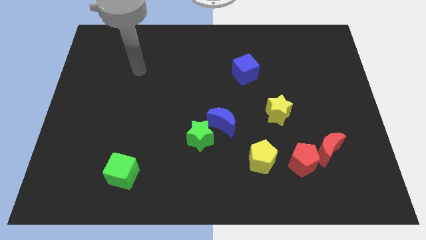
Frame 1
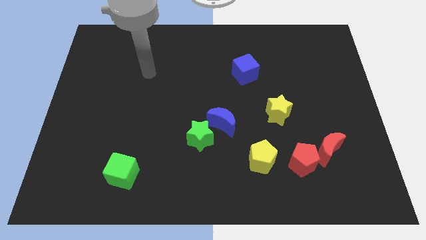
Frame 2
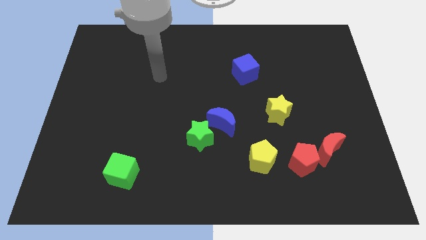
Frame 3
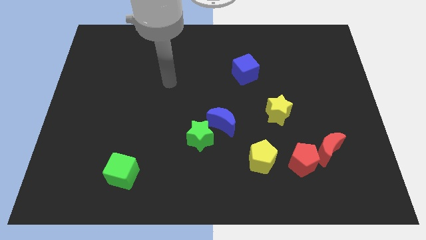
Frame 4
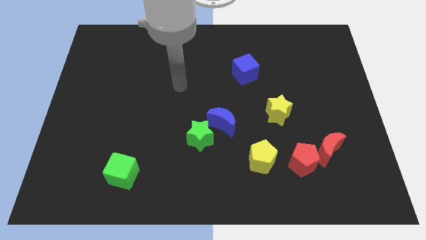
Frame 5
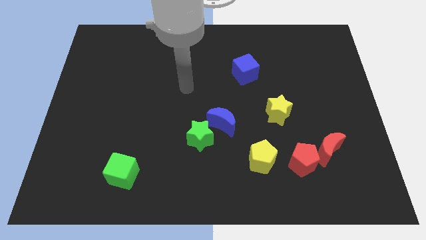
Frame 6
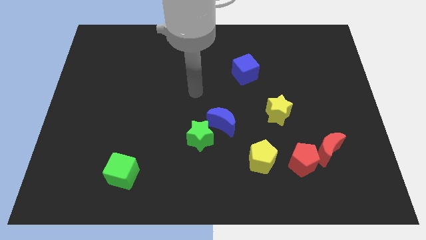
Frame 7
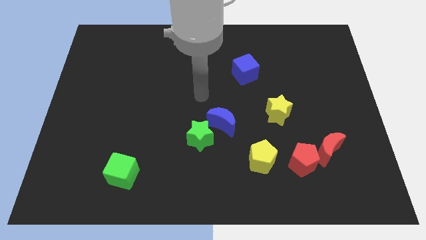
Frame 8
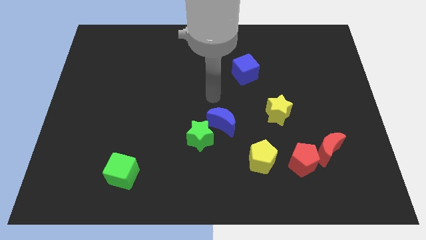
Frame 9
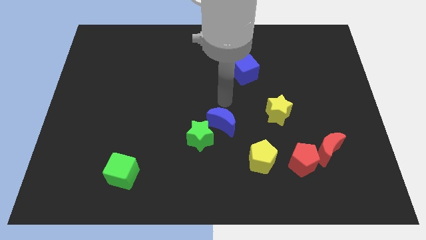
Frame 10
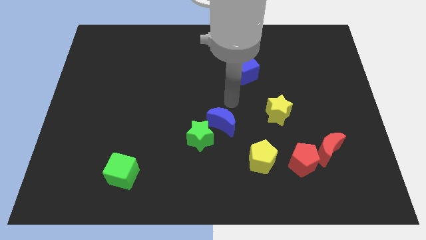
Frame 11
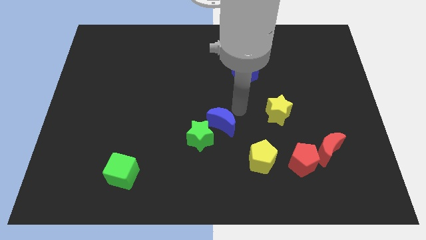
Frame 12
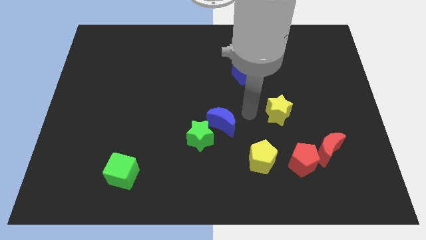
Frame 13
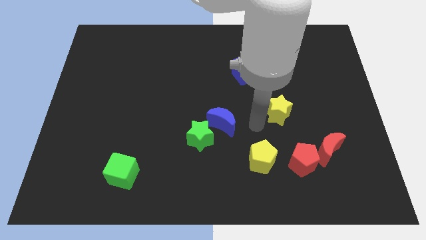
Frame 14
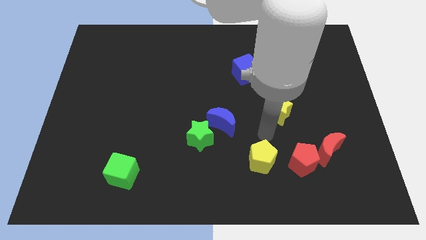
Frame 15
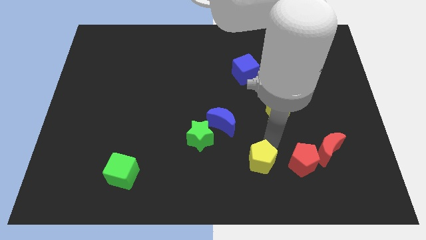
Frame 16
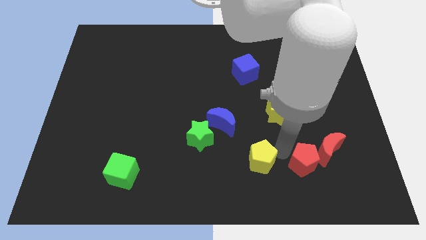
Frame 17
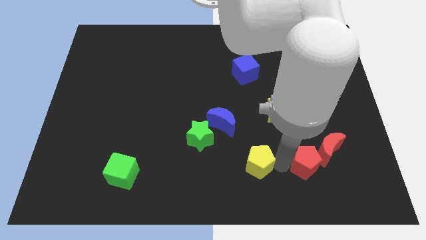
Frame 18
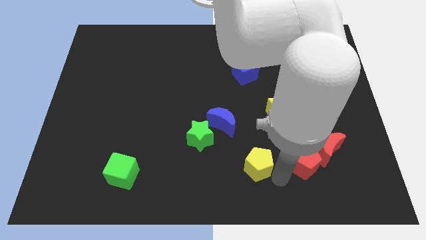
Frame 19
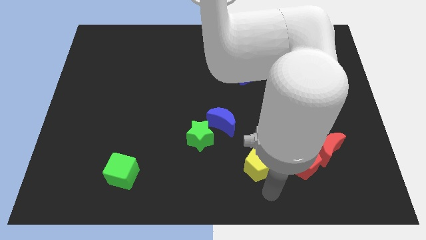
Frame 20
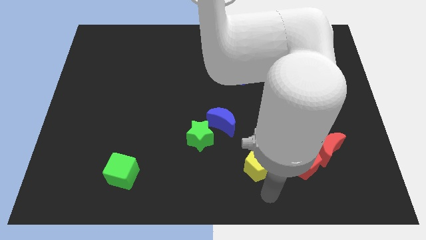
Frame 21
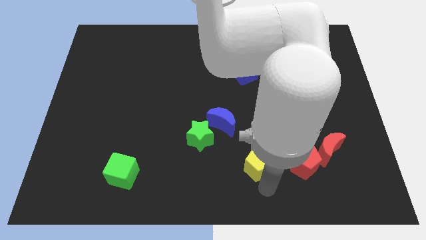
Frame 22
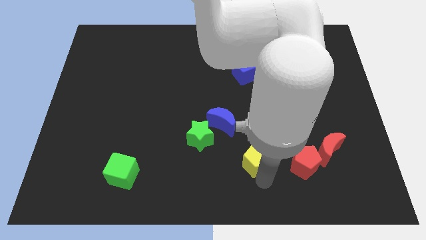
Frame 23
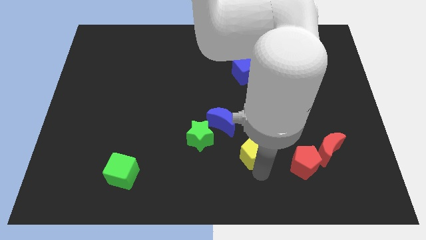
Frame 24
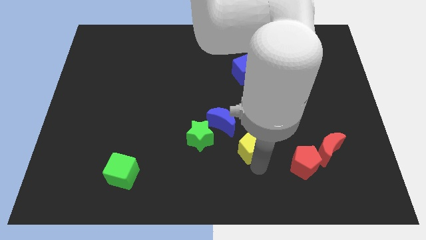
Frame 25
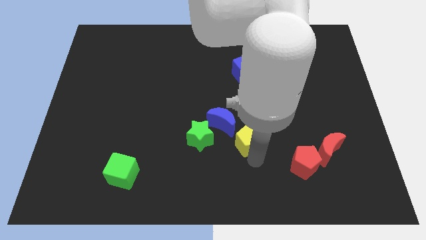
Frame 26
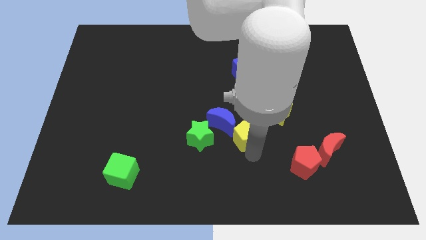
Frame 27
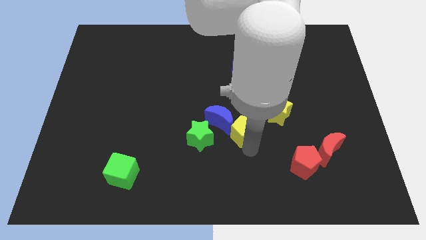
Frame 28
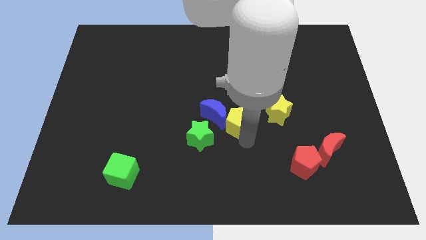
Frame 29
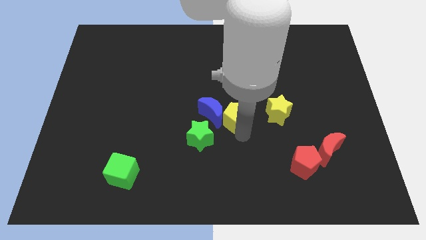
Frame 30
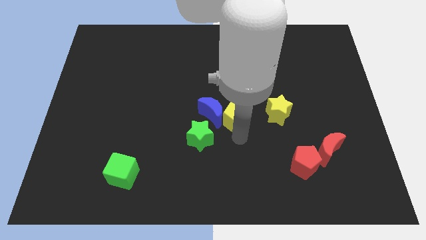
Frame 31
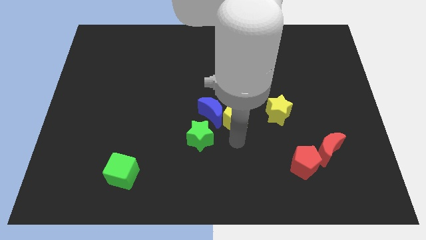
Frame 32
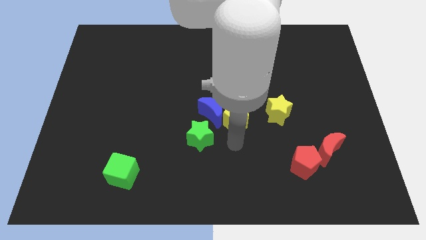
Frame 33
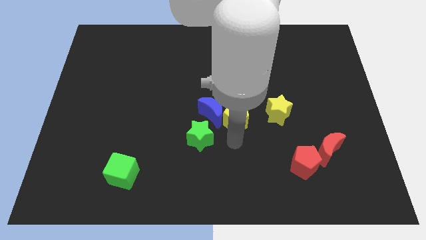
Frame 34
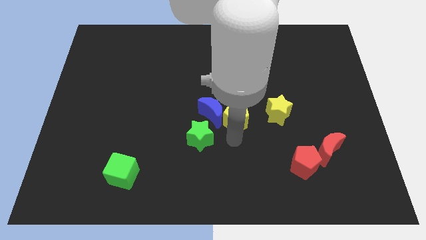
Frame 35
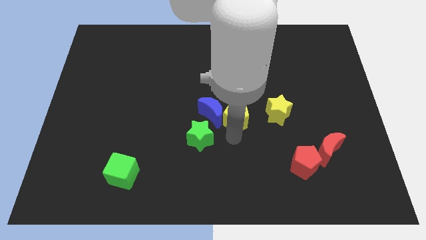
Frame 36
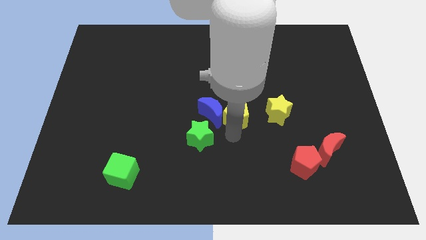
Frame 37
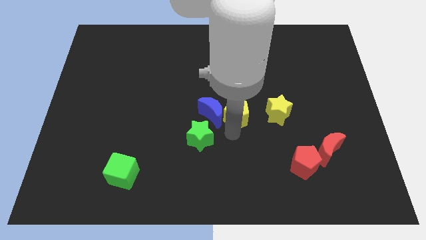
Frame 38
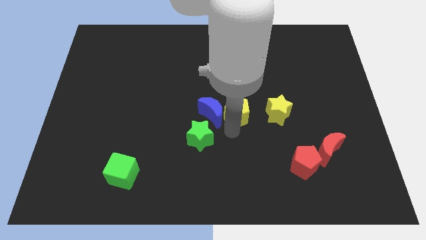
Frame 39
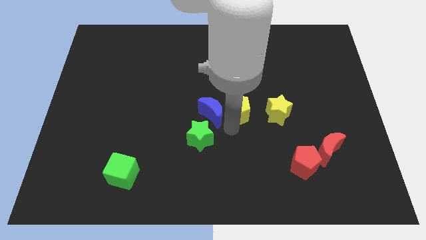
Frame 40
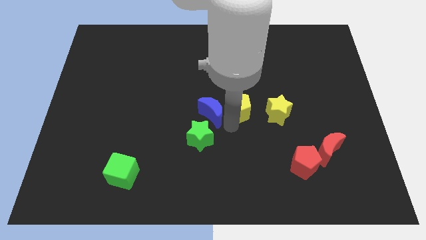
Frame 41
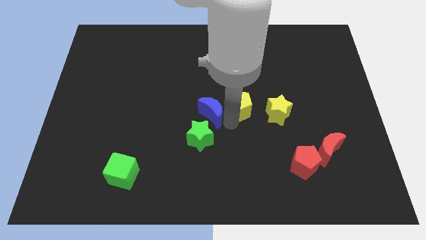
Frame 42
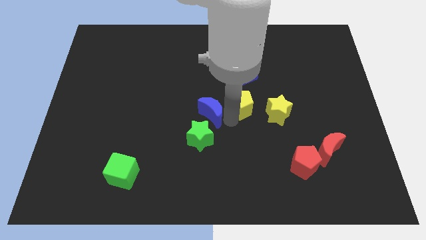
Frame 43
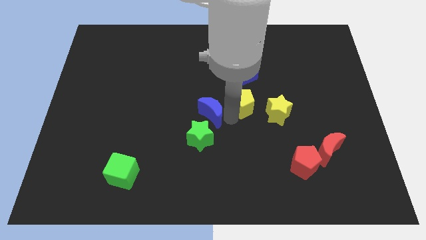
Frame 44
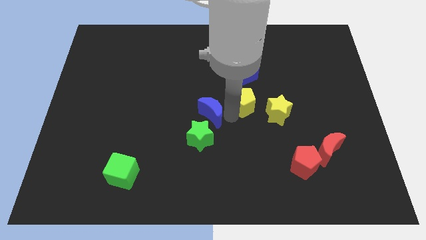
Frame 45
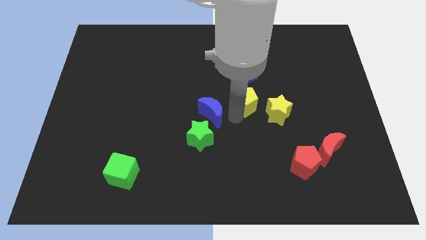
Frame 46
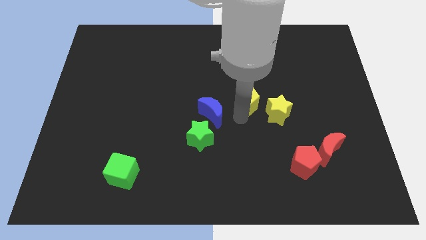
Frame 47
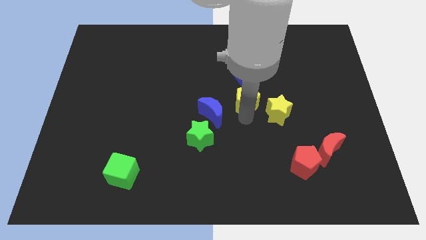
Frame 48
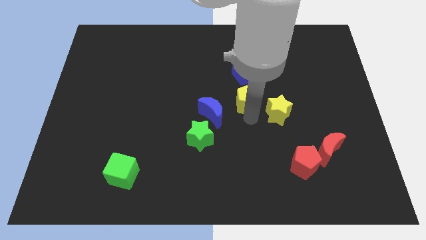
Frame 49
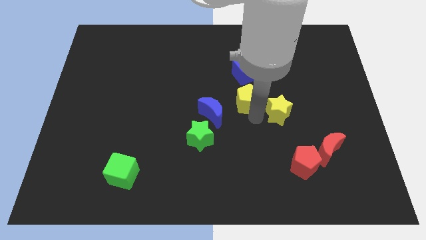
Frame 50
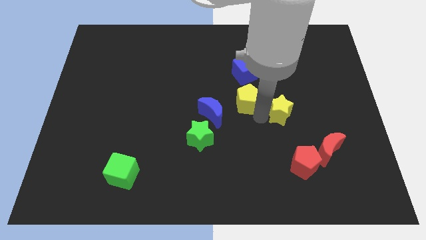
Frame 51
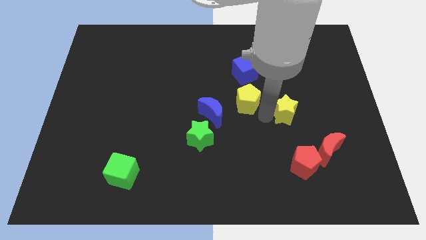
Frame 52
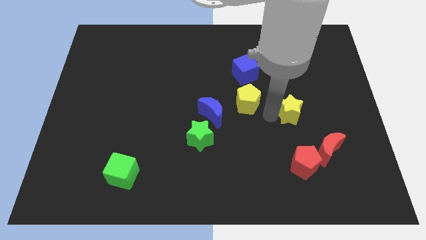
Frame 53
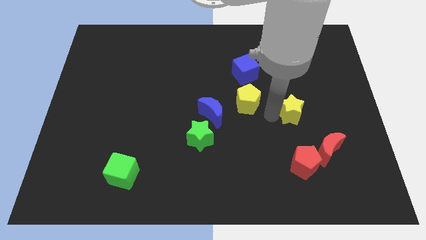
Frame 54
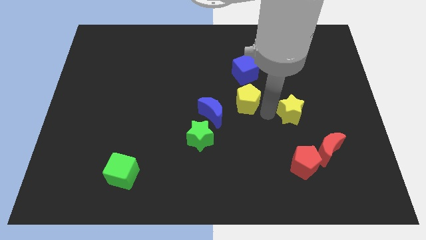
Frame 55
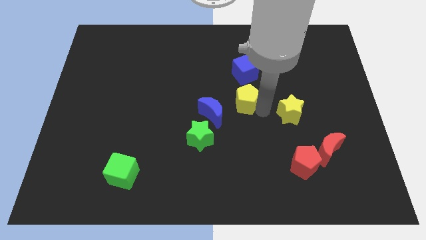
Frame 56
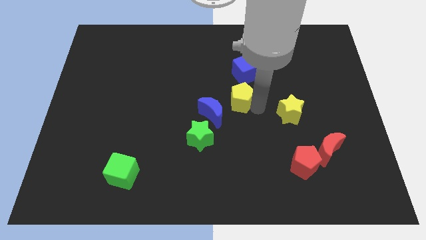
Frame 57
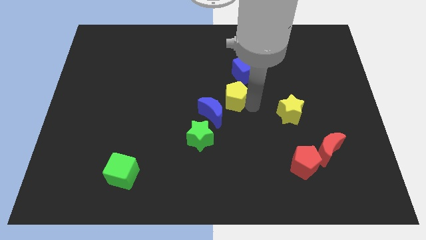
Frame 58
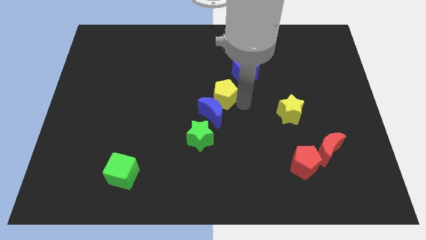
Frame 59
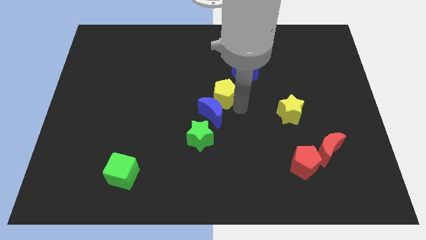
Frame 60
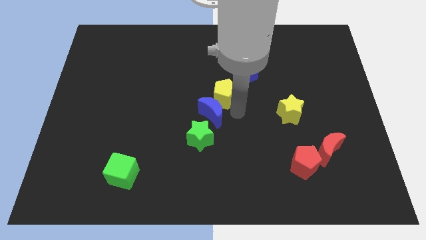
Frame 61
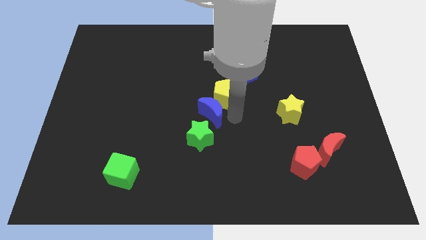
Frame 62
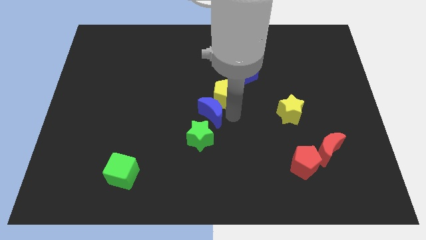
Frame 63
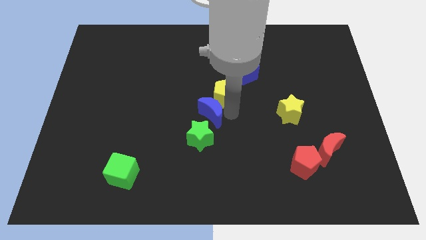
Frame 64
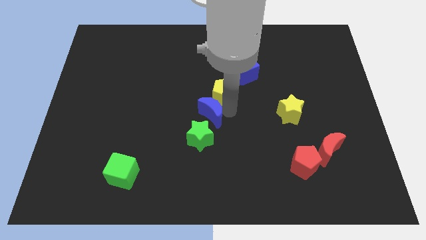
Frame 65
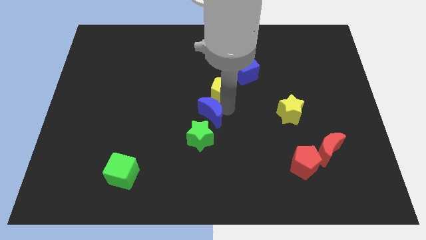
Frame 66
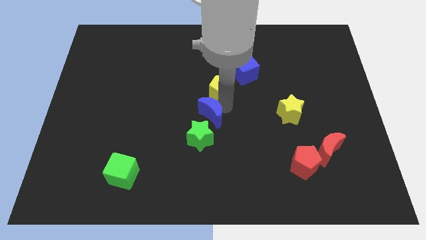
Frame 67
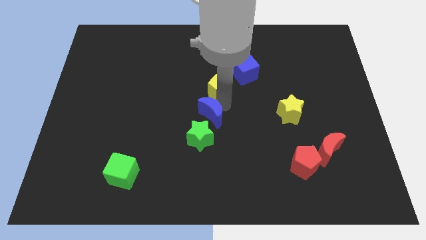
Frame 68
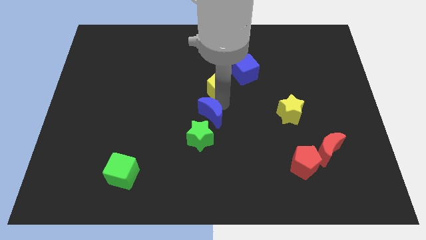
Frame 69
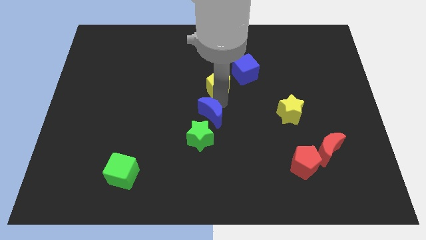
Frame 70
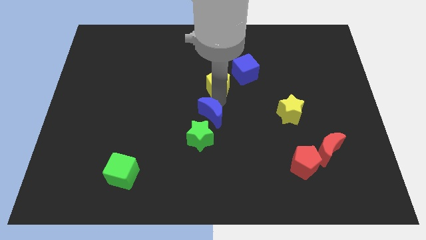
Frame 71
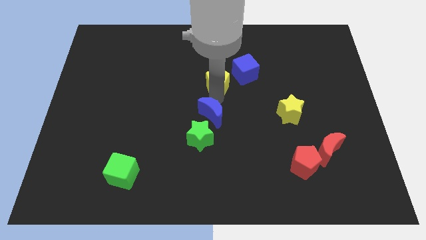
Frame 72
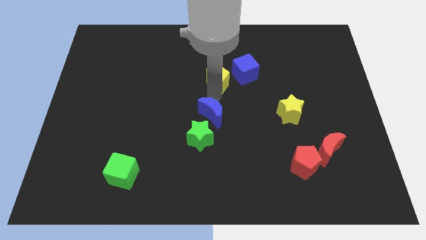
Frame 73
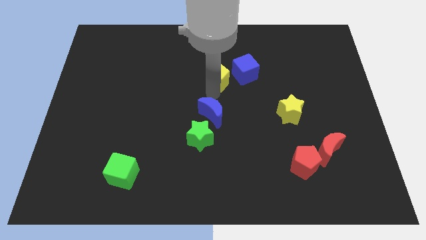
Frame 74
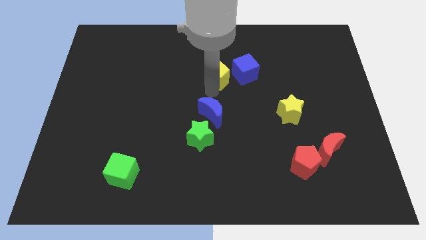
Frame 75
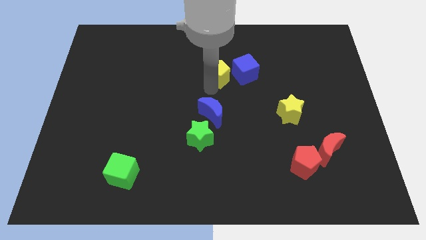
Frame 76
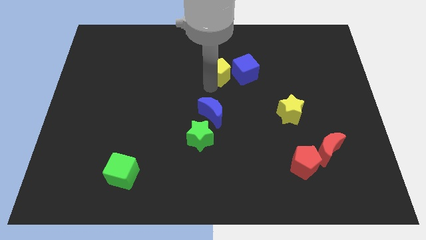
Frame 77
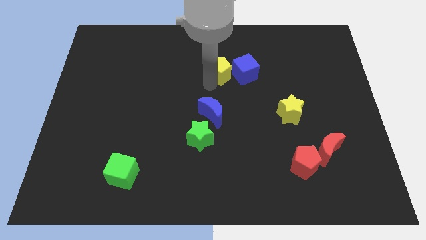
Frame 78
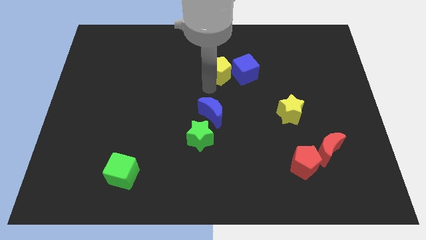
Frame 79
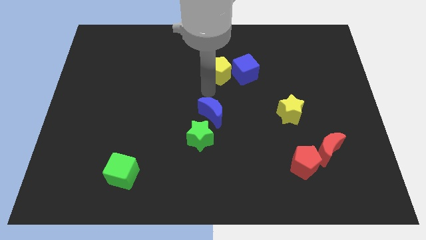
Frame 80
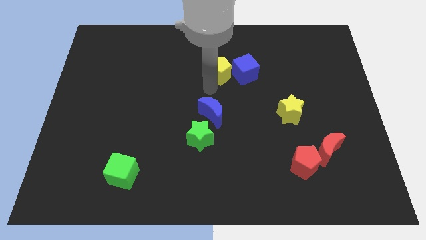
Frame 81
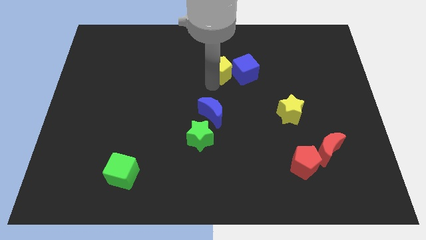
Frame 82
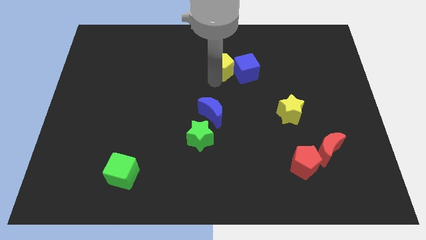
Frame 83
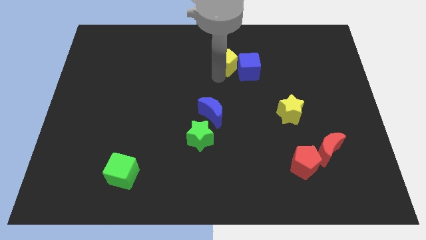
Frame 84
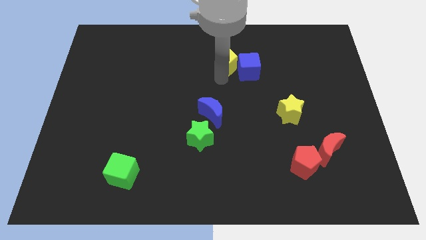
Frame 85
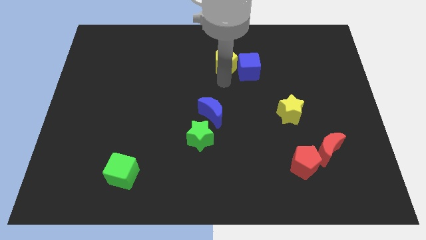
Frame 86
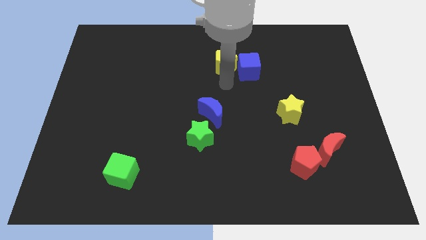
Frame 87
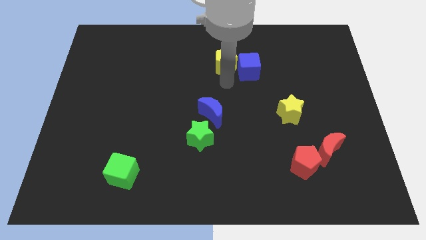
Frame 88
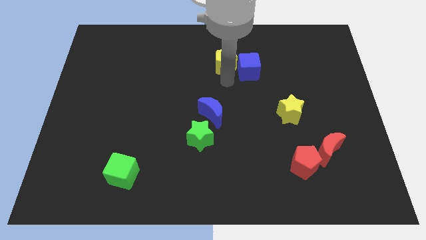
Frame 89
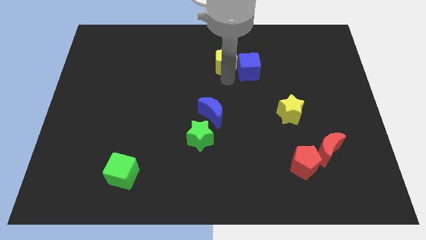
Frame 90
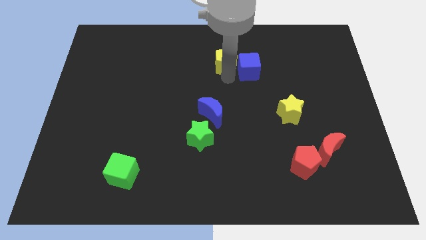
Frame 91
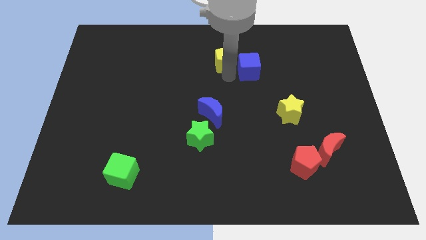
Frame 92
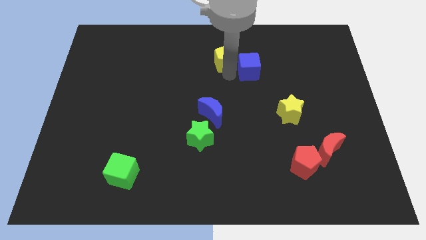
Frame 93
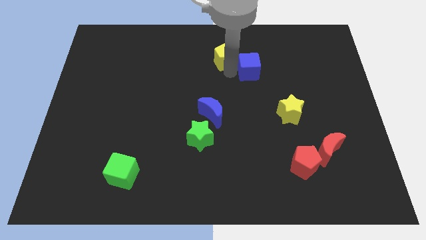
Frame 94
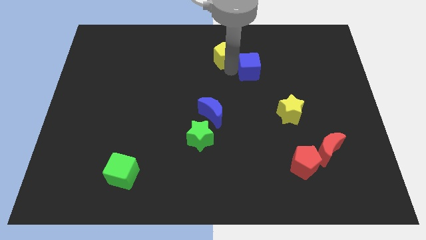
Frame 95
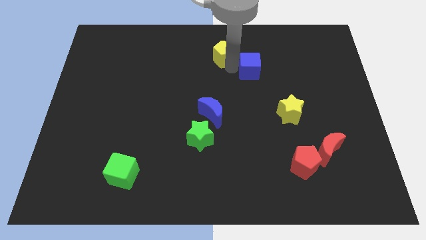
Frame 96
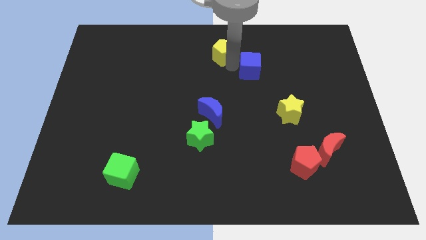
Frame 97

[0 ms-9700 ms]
slide the yellow pentagon to the top
